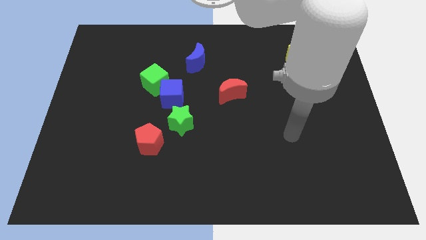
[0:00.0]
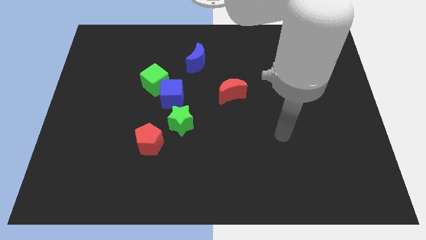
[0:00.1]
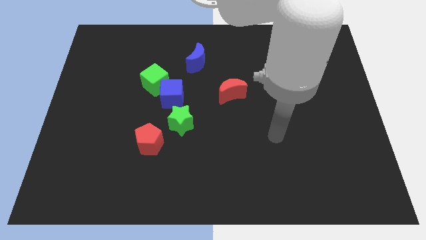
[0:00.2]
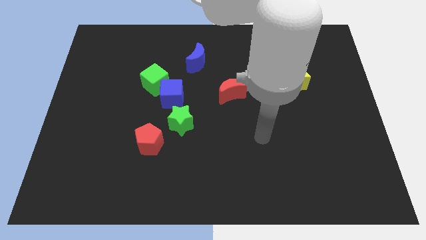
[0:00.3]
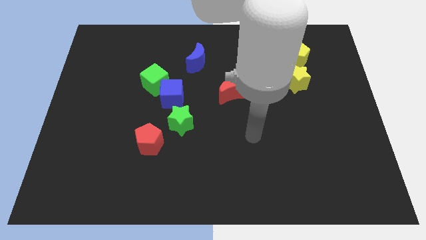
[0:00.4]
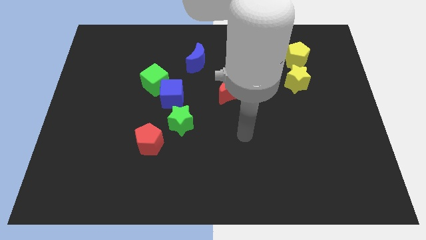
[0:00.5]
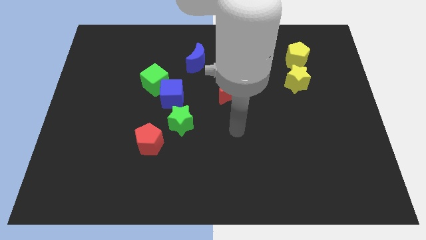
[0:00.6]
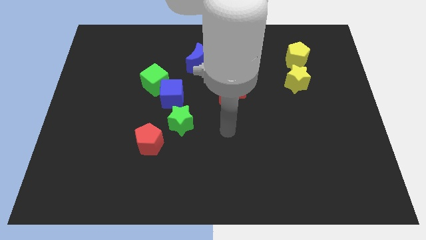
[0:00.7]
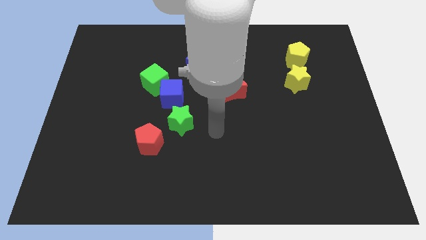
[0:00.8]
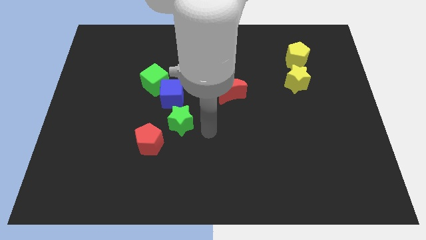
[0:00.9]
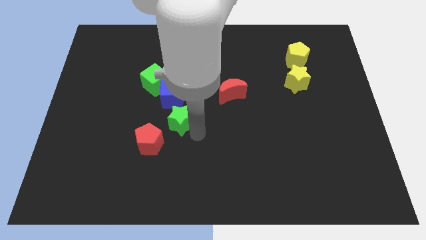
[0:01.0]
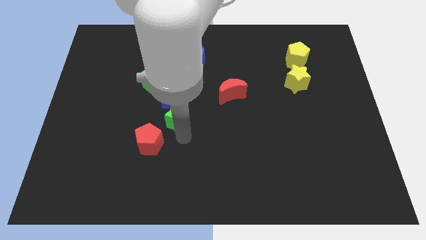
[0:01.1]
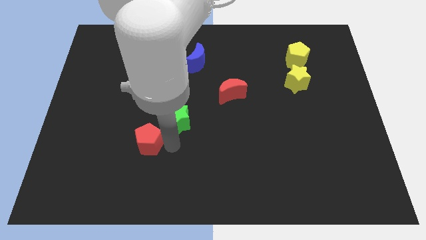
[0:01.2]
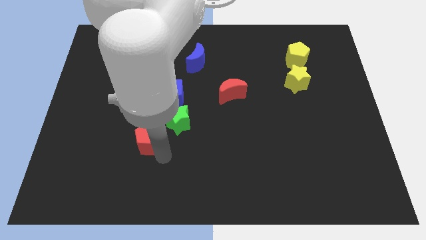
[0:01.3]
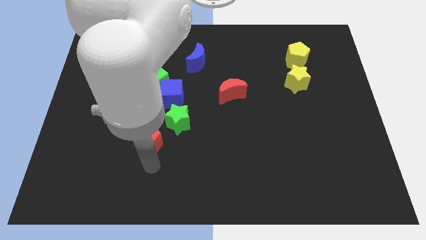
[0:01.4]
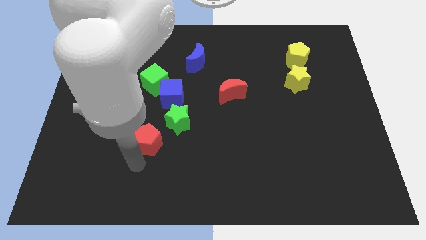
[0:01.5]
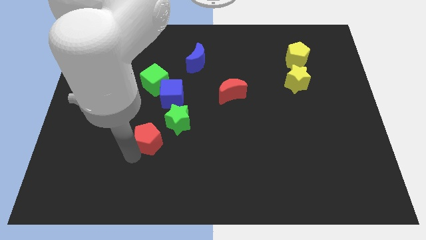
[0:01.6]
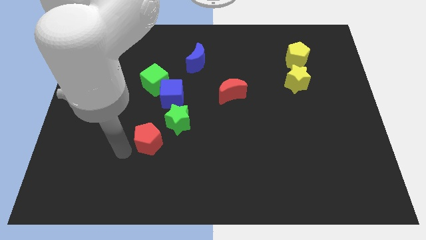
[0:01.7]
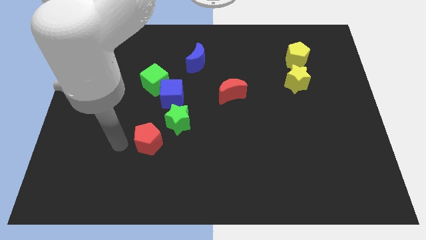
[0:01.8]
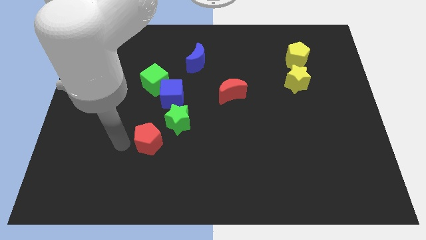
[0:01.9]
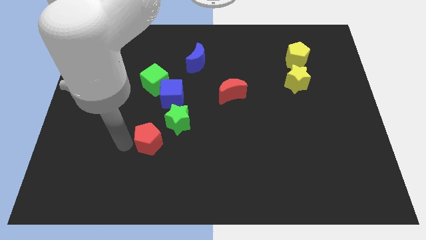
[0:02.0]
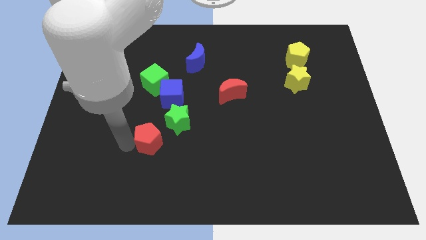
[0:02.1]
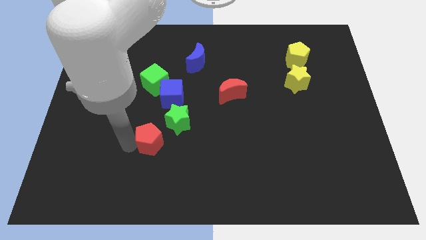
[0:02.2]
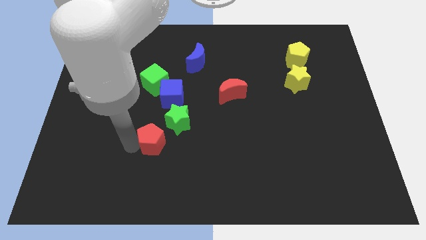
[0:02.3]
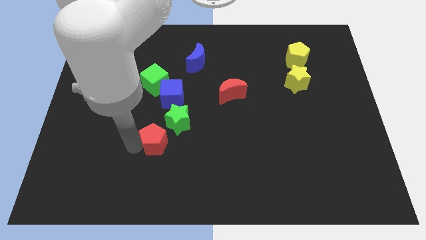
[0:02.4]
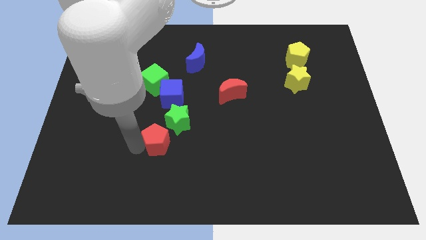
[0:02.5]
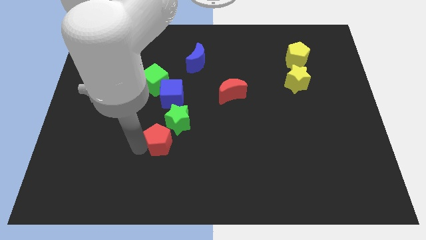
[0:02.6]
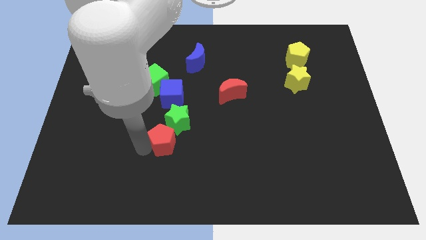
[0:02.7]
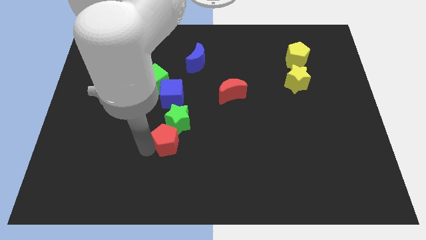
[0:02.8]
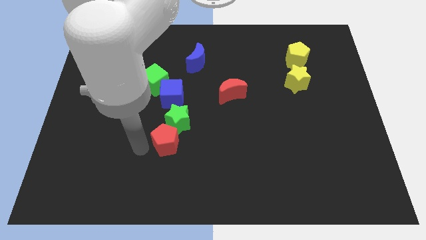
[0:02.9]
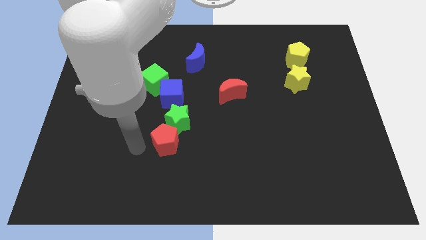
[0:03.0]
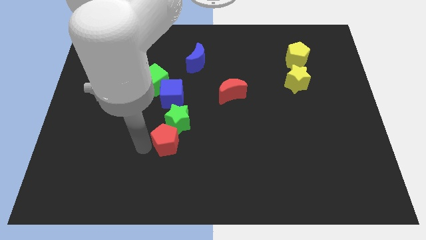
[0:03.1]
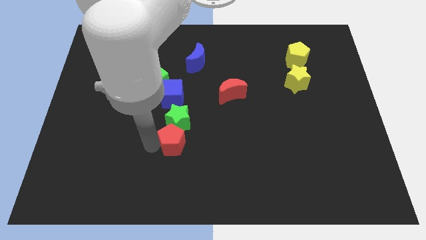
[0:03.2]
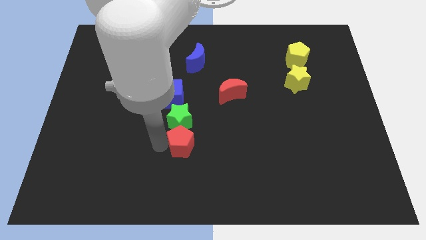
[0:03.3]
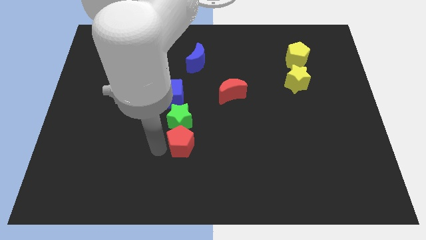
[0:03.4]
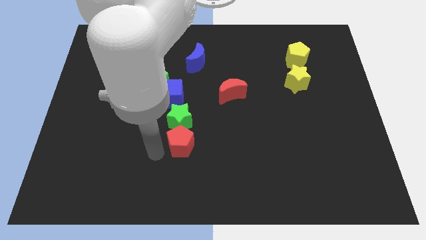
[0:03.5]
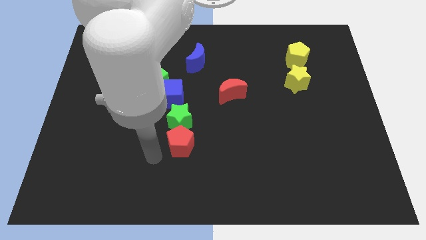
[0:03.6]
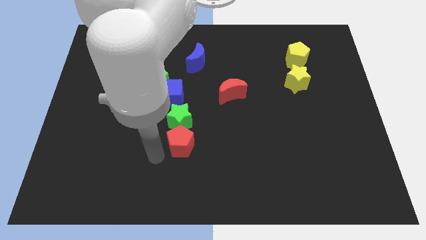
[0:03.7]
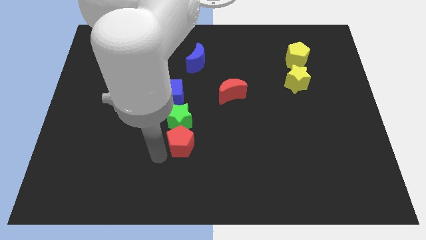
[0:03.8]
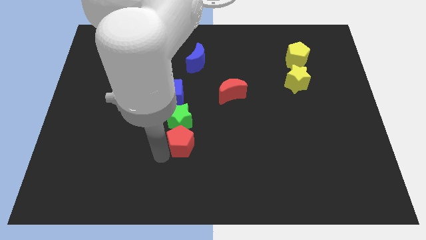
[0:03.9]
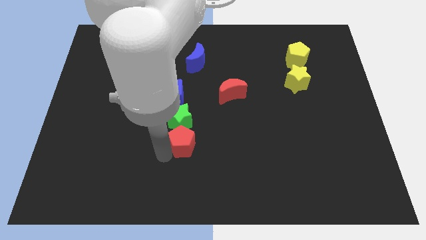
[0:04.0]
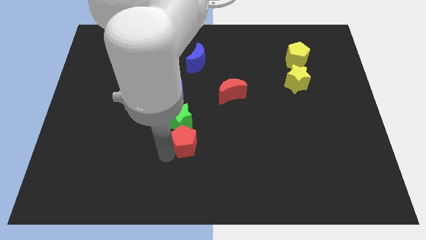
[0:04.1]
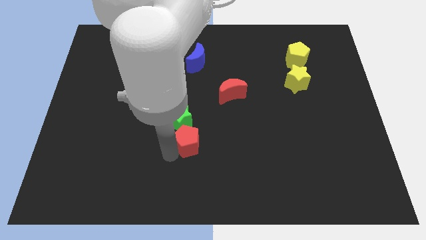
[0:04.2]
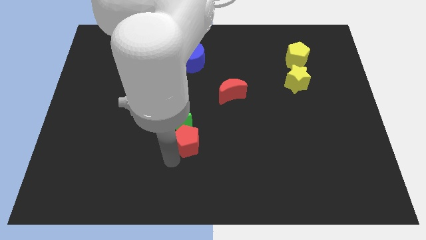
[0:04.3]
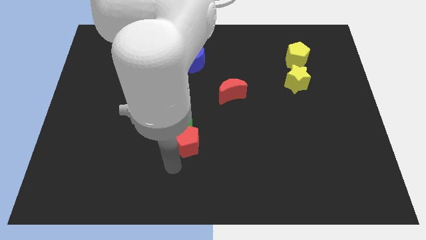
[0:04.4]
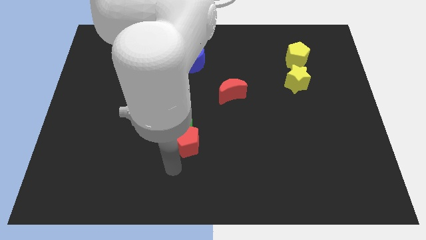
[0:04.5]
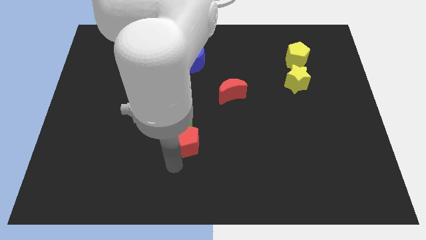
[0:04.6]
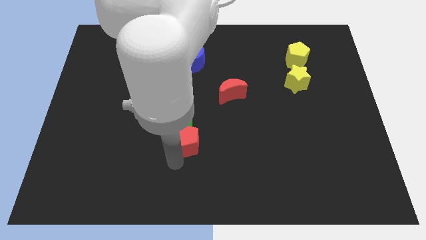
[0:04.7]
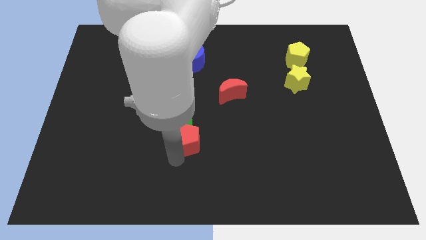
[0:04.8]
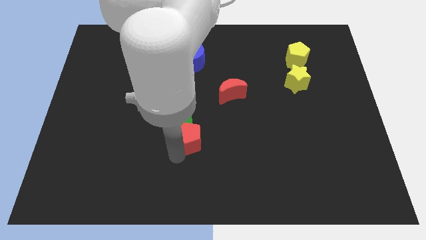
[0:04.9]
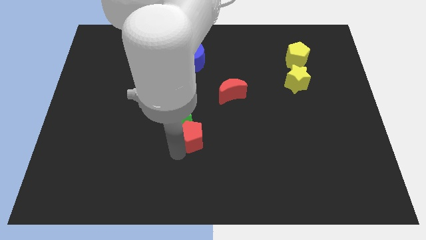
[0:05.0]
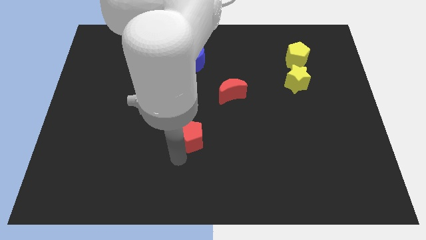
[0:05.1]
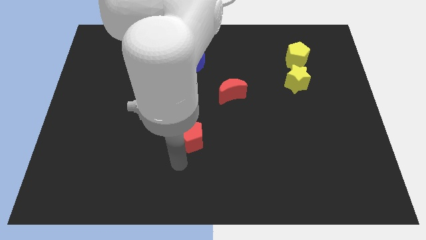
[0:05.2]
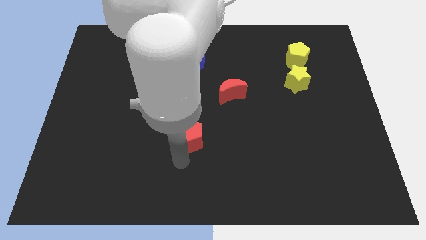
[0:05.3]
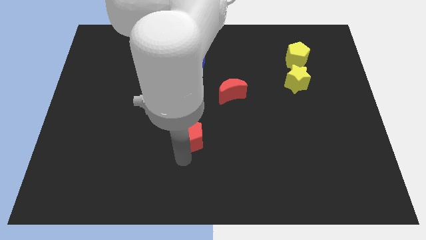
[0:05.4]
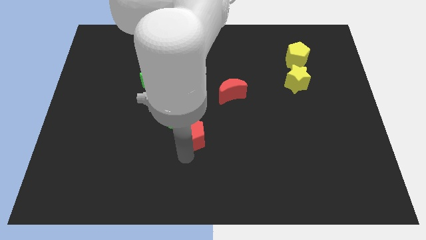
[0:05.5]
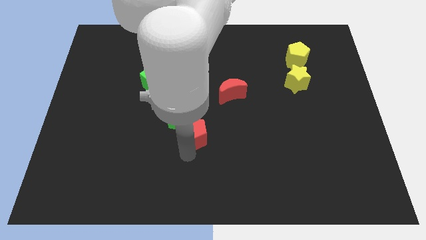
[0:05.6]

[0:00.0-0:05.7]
slightly push the red pentagon diagonally up and right

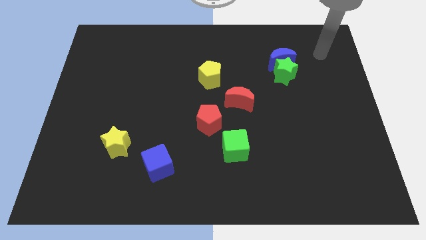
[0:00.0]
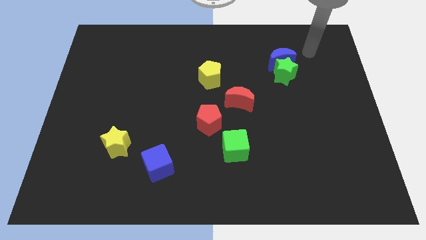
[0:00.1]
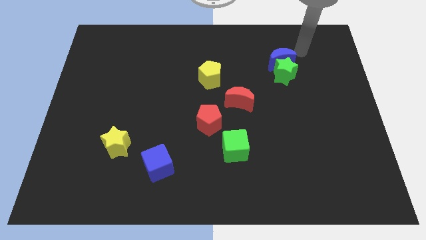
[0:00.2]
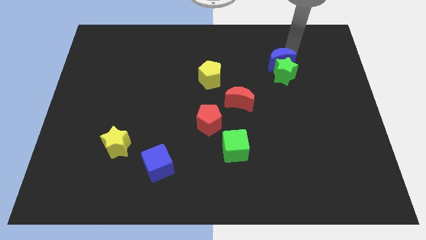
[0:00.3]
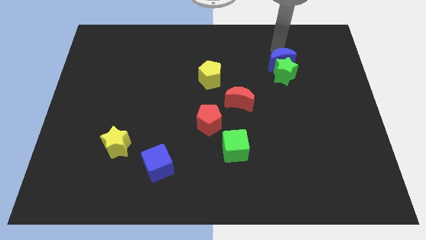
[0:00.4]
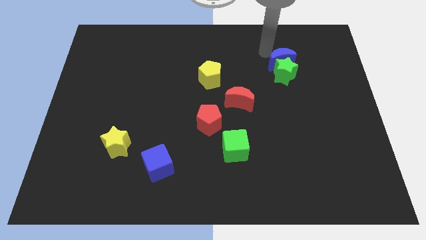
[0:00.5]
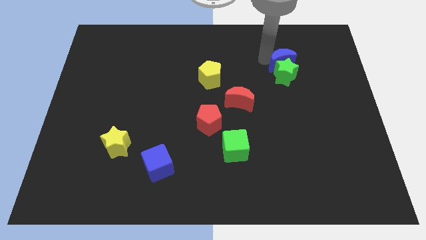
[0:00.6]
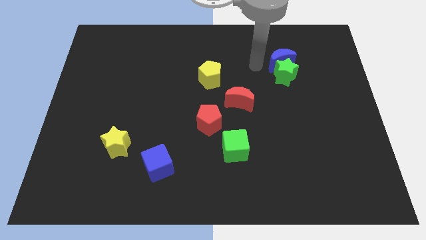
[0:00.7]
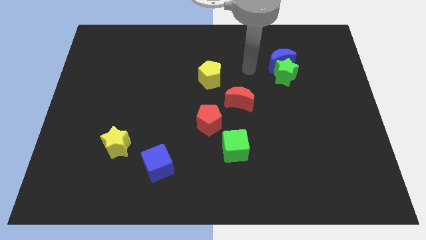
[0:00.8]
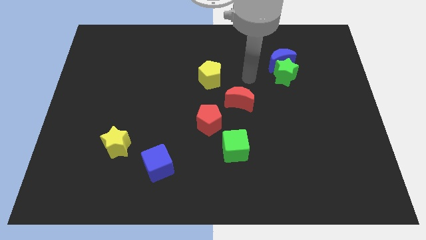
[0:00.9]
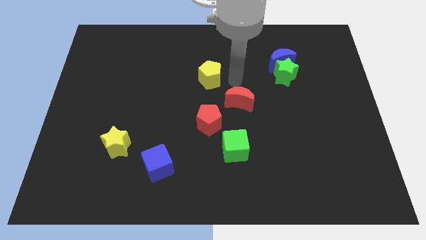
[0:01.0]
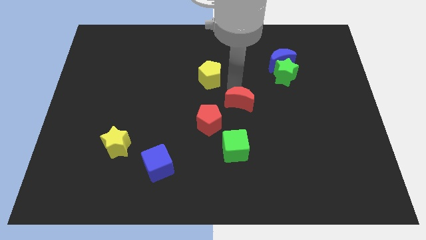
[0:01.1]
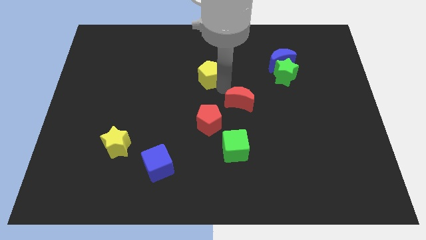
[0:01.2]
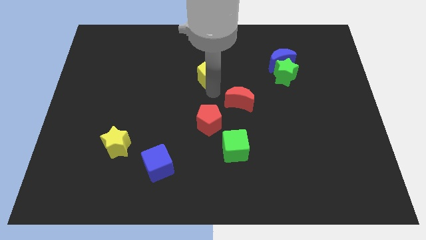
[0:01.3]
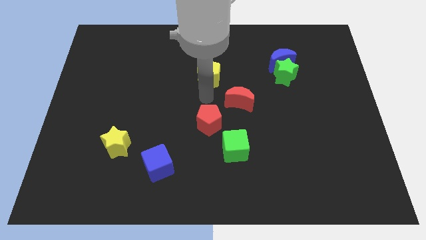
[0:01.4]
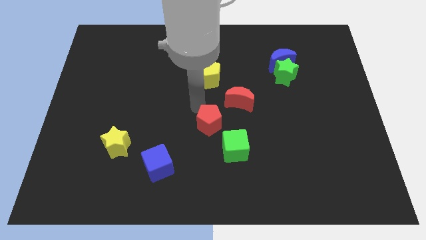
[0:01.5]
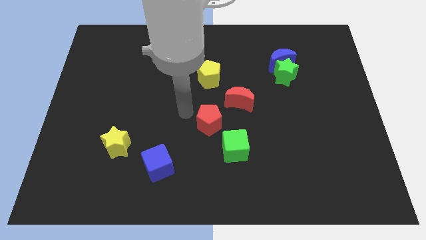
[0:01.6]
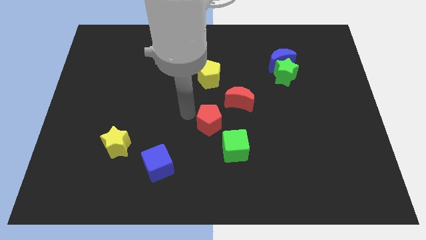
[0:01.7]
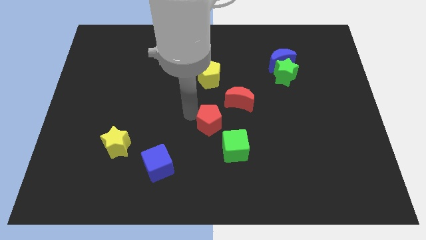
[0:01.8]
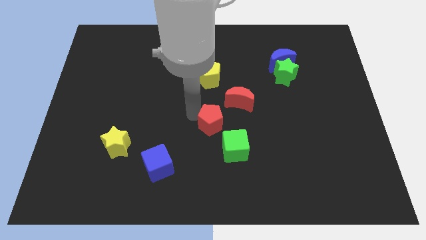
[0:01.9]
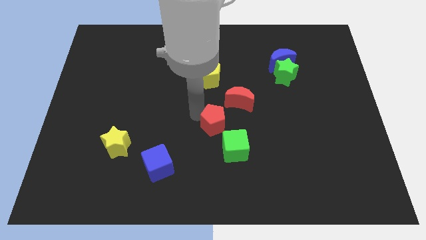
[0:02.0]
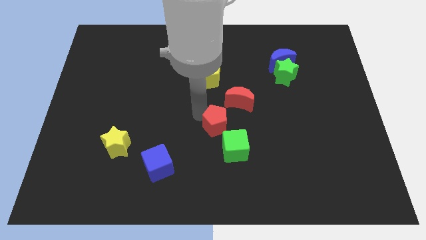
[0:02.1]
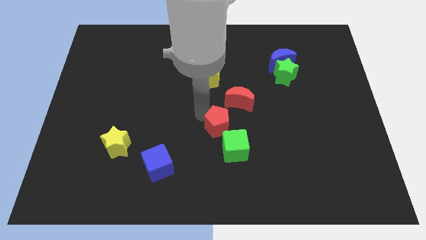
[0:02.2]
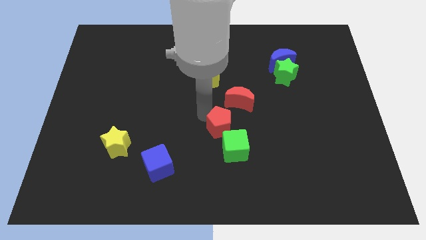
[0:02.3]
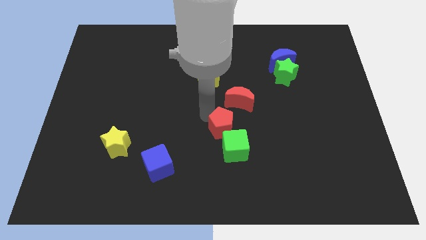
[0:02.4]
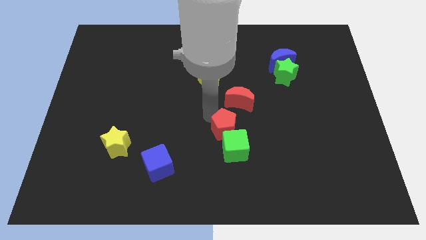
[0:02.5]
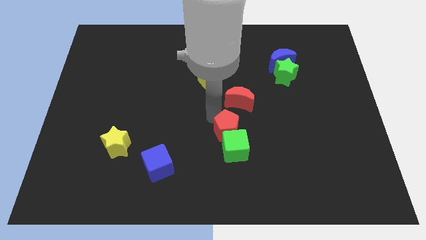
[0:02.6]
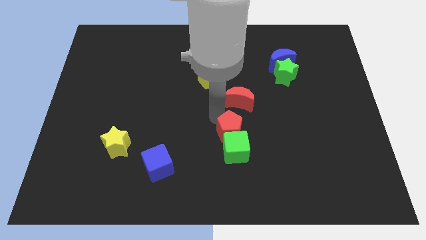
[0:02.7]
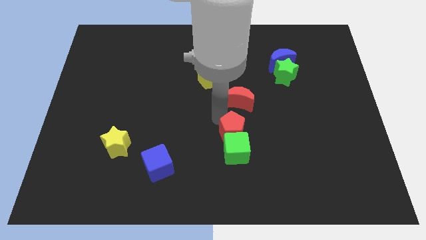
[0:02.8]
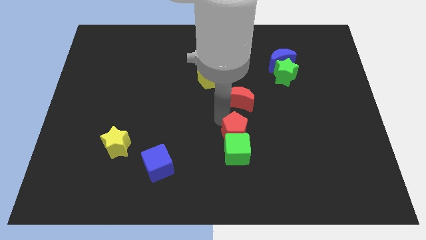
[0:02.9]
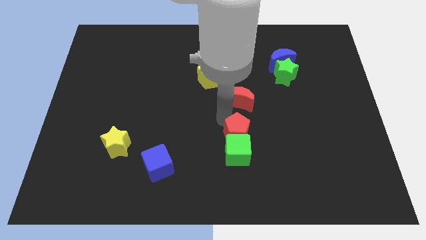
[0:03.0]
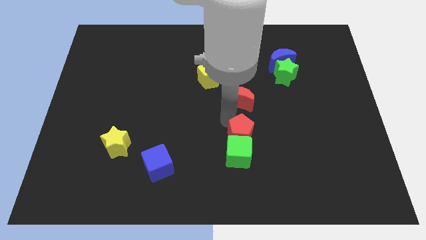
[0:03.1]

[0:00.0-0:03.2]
slightly move the red pentagon downwards and then to the right
